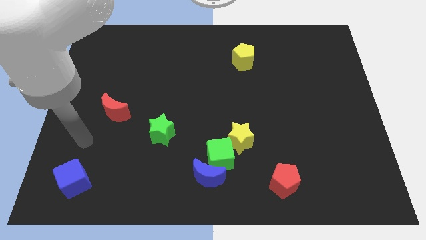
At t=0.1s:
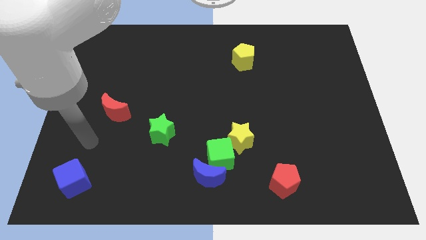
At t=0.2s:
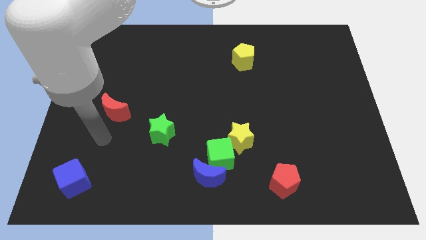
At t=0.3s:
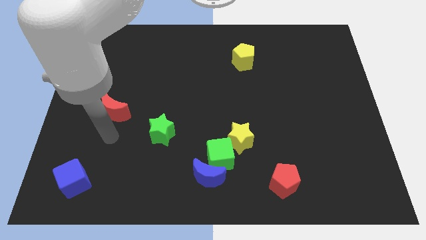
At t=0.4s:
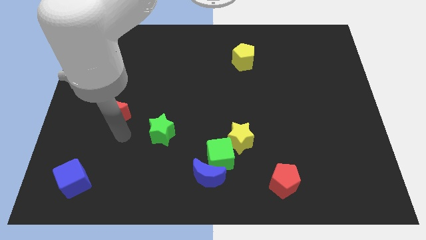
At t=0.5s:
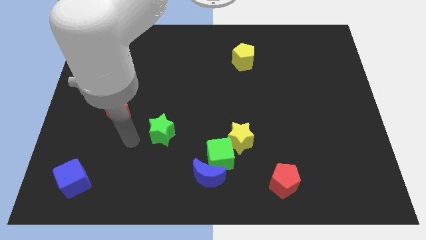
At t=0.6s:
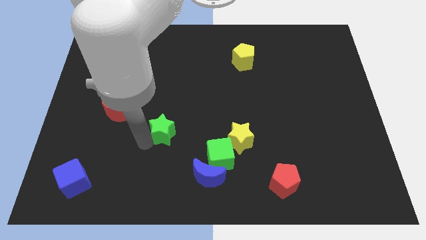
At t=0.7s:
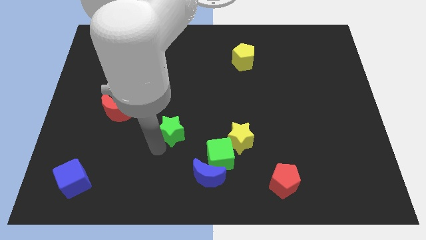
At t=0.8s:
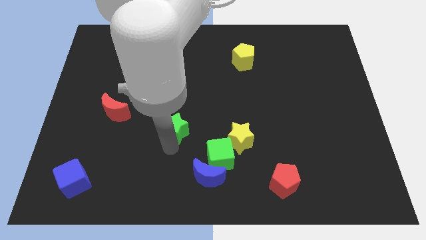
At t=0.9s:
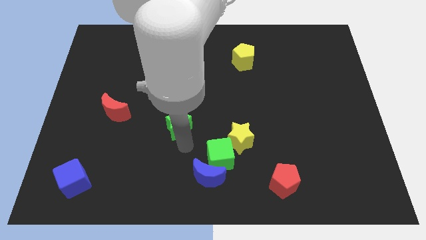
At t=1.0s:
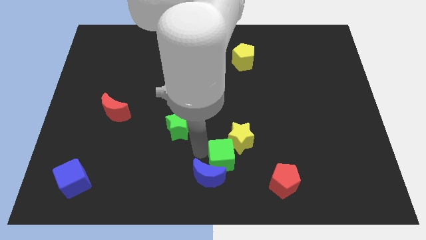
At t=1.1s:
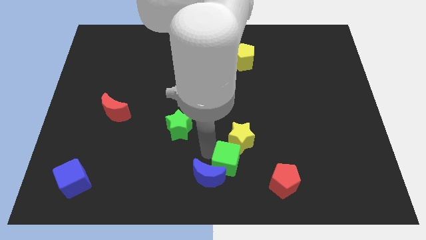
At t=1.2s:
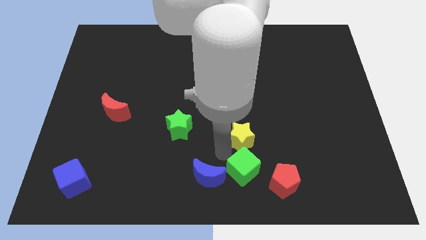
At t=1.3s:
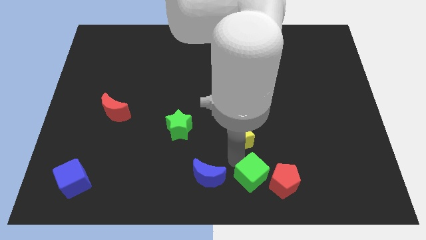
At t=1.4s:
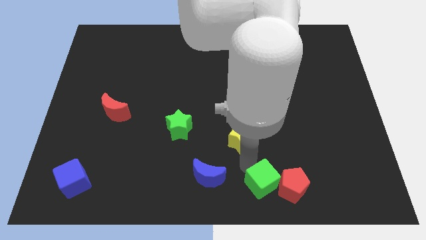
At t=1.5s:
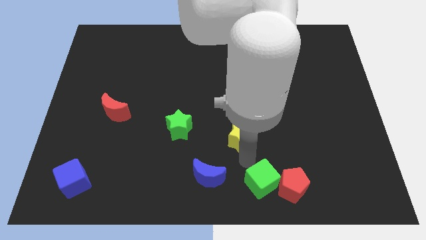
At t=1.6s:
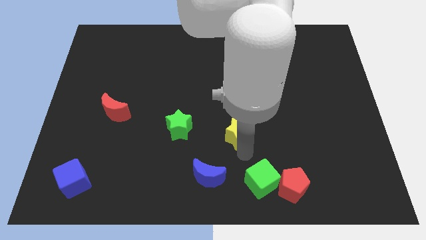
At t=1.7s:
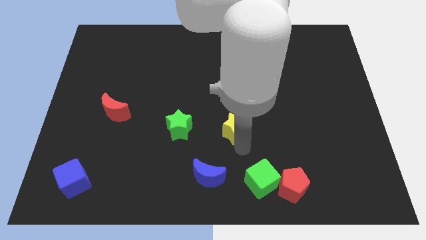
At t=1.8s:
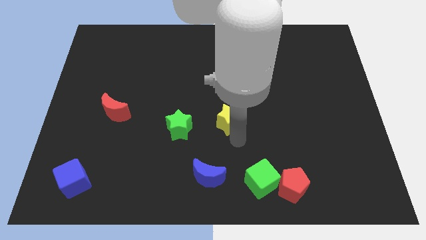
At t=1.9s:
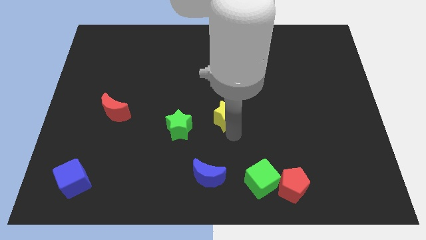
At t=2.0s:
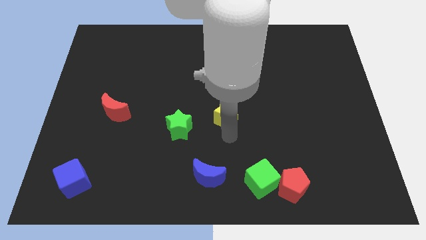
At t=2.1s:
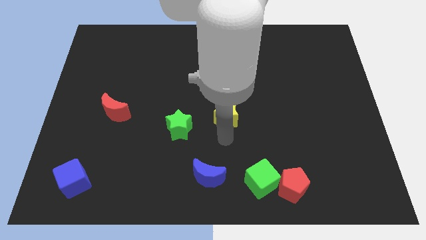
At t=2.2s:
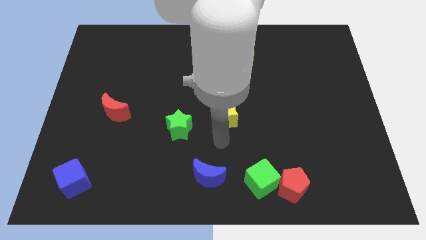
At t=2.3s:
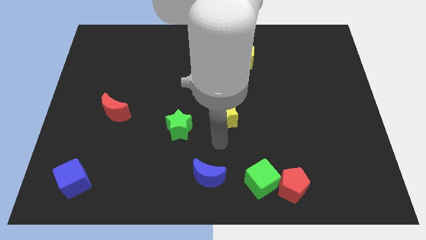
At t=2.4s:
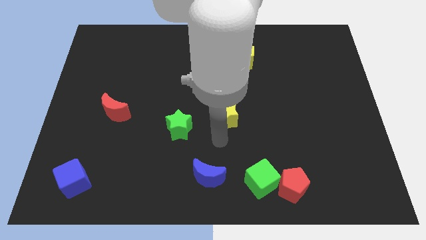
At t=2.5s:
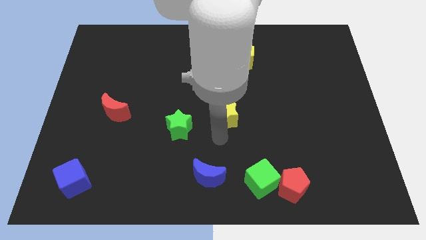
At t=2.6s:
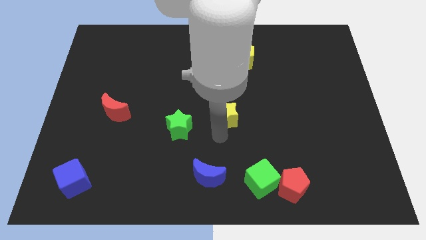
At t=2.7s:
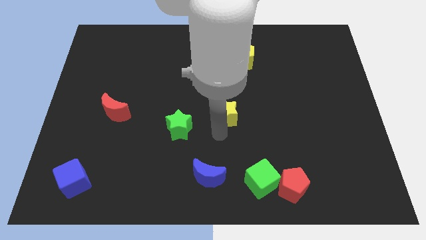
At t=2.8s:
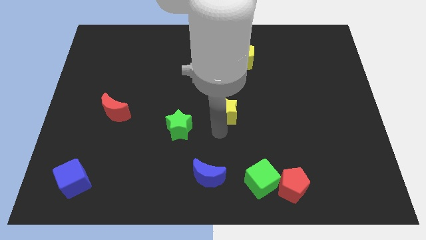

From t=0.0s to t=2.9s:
slightly push the yellow star up

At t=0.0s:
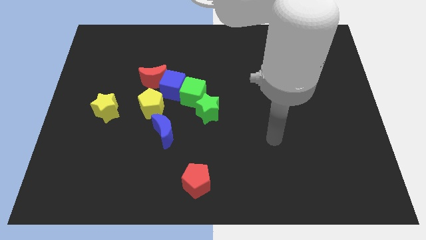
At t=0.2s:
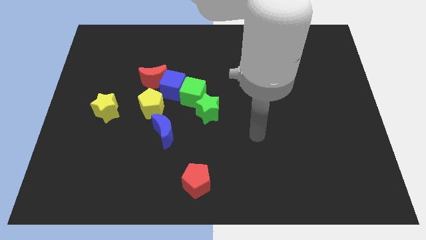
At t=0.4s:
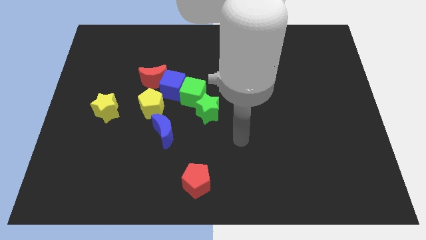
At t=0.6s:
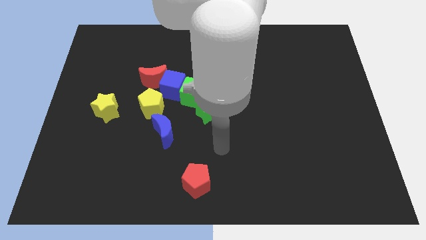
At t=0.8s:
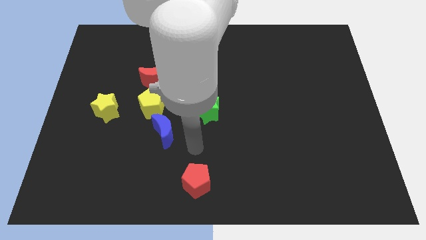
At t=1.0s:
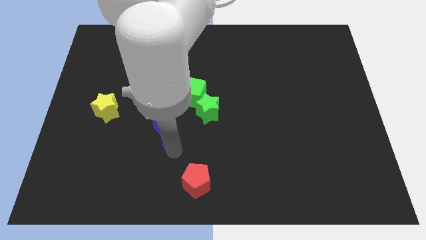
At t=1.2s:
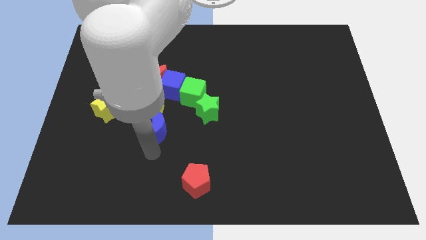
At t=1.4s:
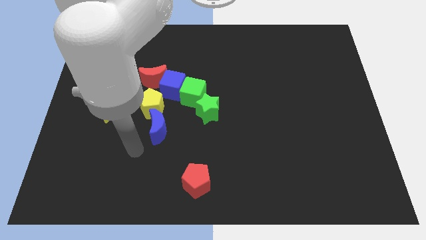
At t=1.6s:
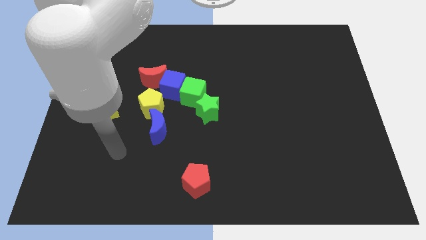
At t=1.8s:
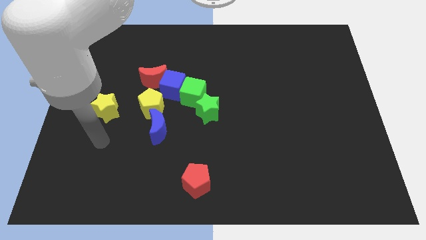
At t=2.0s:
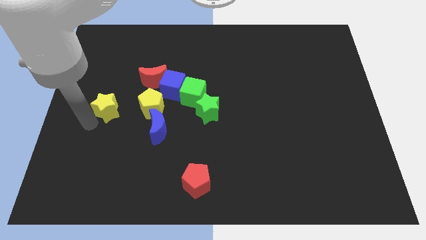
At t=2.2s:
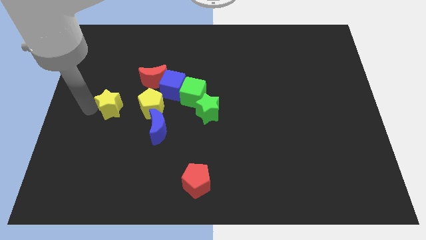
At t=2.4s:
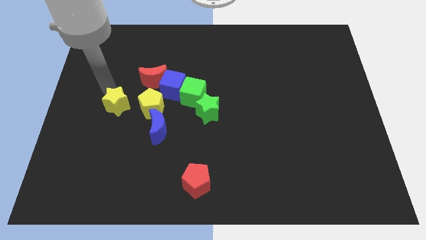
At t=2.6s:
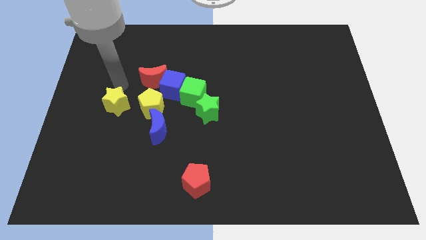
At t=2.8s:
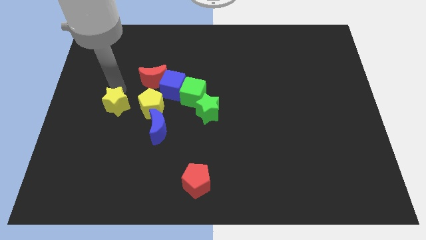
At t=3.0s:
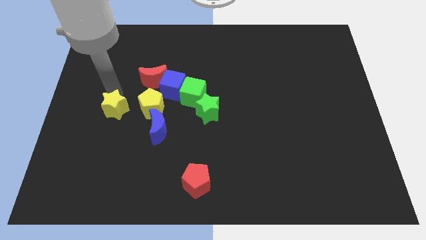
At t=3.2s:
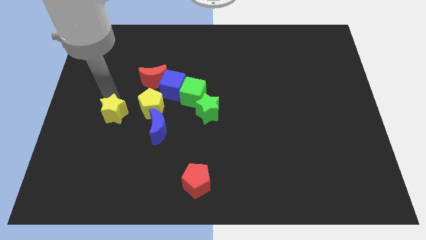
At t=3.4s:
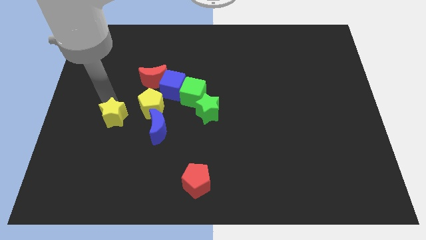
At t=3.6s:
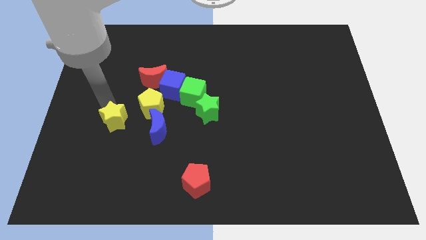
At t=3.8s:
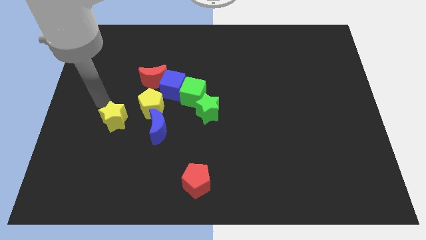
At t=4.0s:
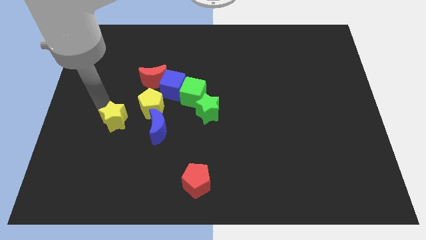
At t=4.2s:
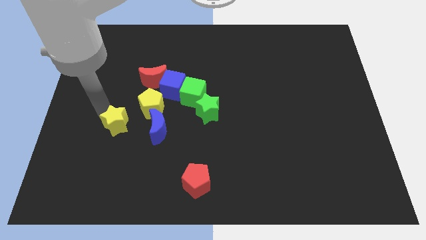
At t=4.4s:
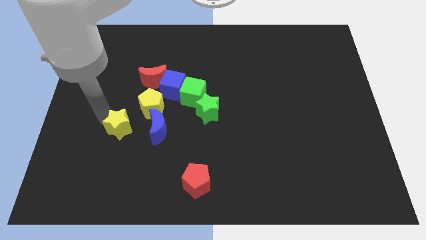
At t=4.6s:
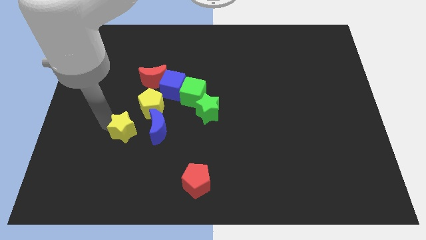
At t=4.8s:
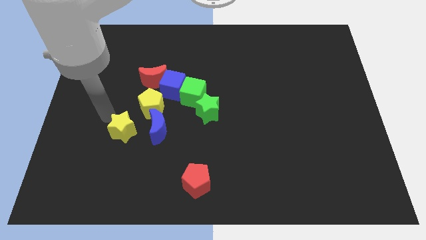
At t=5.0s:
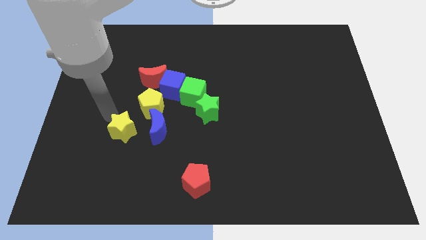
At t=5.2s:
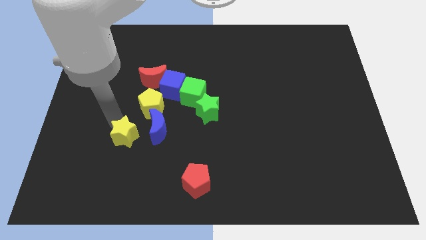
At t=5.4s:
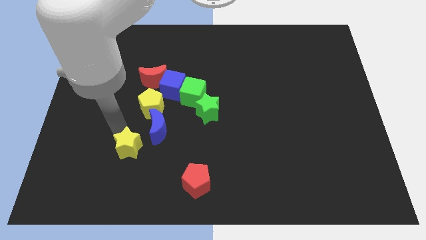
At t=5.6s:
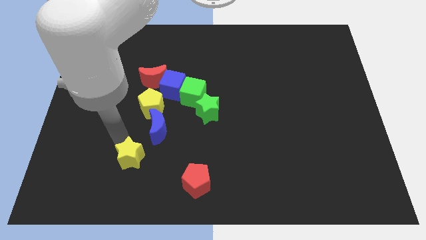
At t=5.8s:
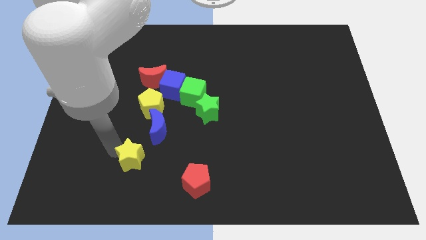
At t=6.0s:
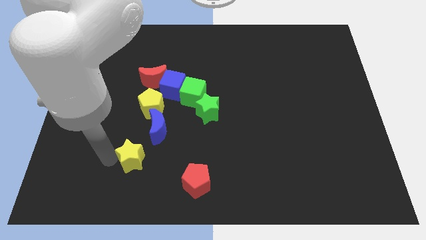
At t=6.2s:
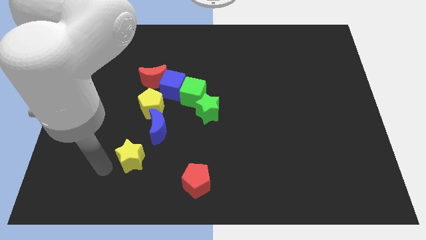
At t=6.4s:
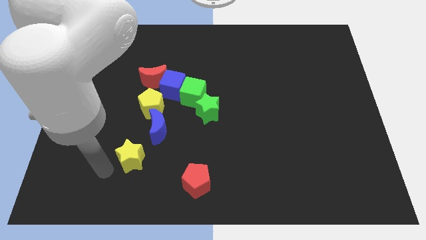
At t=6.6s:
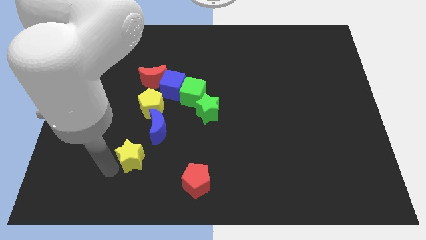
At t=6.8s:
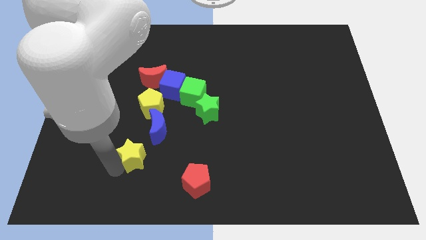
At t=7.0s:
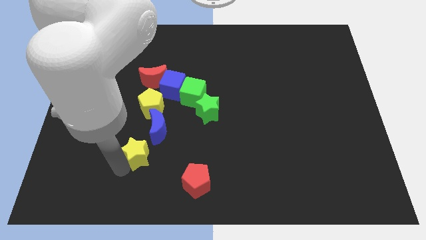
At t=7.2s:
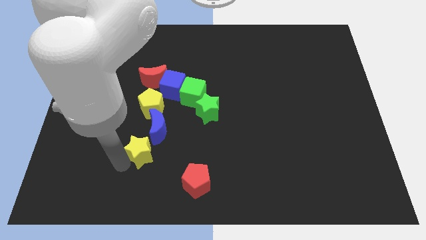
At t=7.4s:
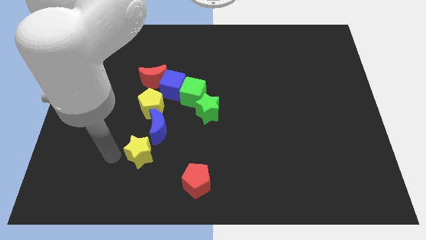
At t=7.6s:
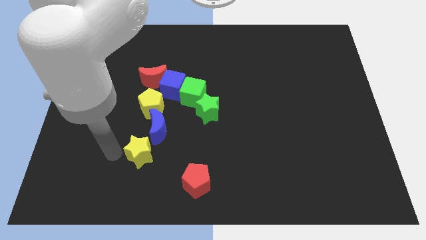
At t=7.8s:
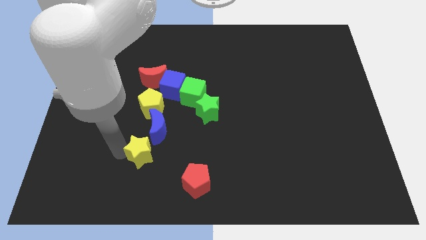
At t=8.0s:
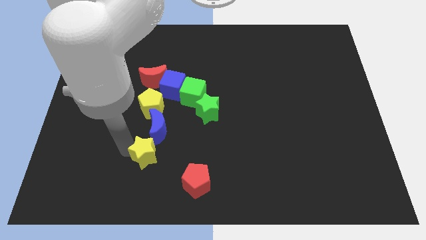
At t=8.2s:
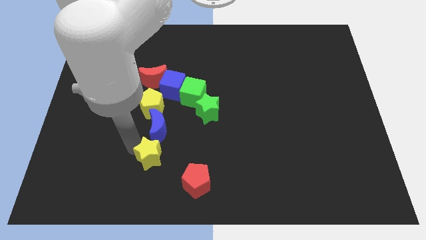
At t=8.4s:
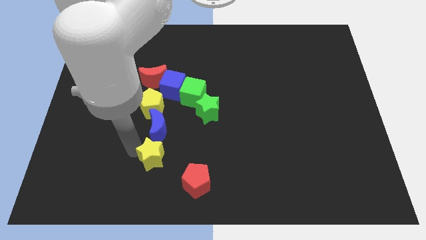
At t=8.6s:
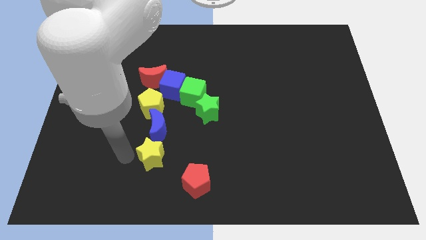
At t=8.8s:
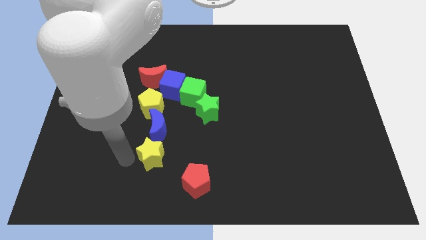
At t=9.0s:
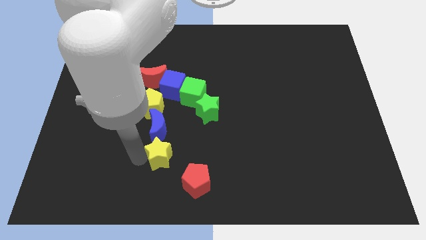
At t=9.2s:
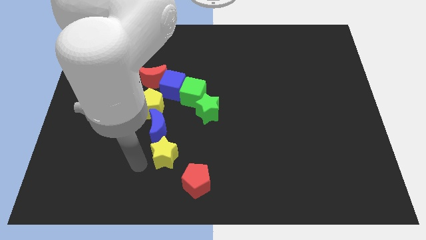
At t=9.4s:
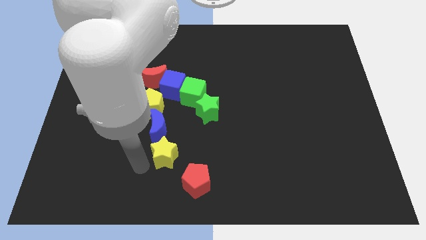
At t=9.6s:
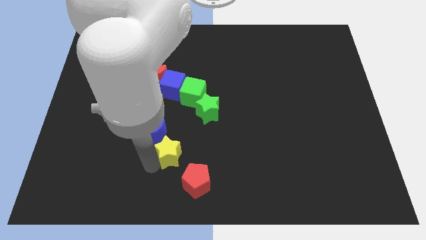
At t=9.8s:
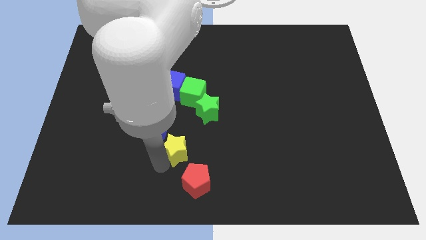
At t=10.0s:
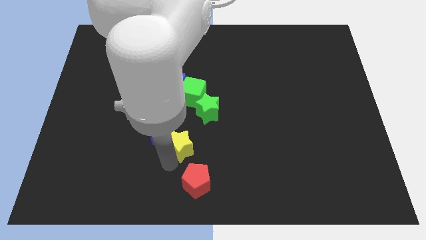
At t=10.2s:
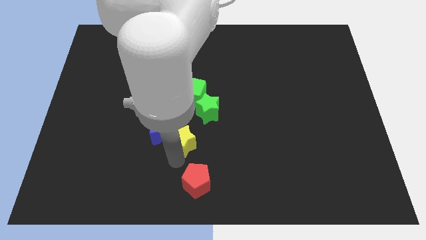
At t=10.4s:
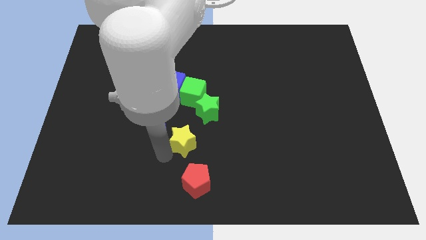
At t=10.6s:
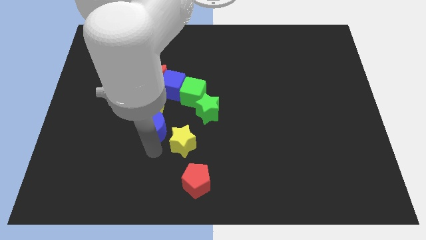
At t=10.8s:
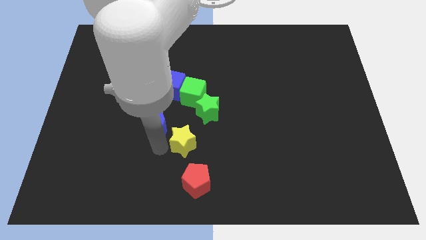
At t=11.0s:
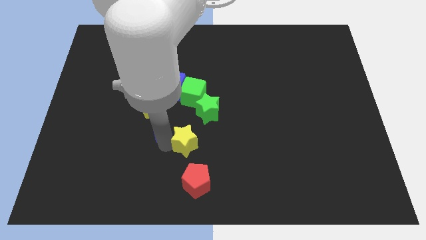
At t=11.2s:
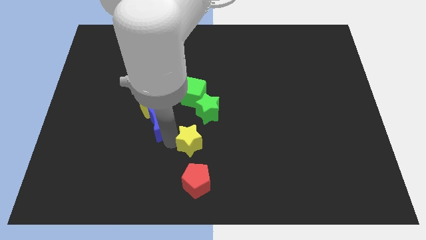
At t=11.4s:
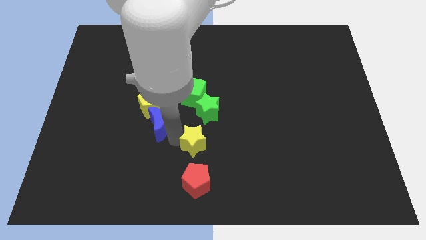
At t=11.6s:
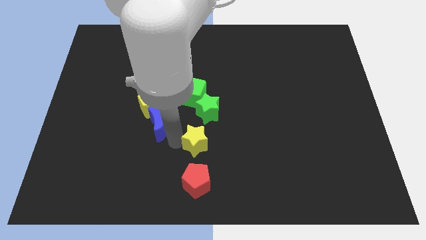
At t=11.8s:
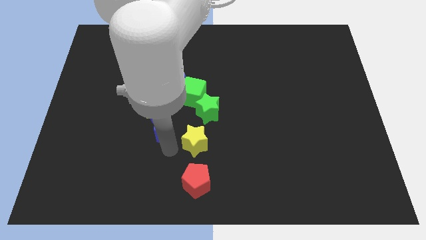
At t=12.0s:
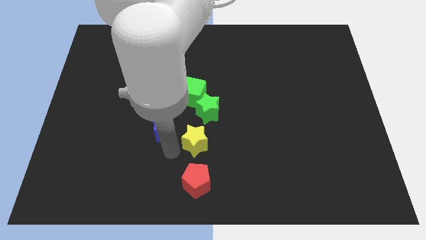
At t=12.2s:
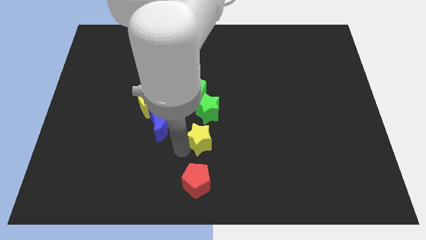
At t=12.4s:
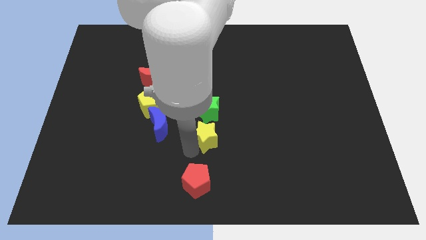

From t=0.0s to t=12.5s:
push the yellow star right
